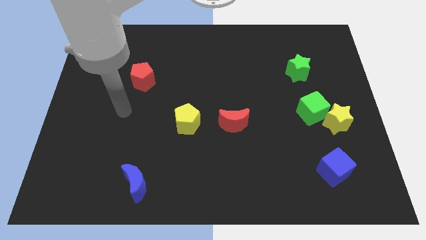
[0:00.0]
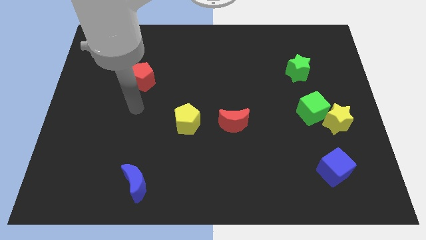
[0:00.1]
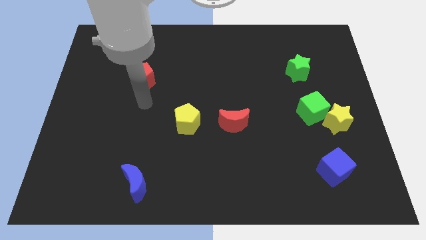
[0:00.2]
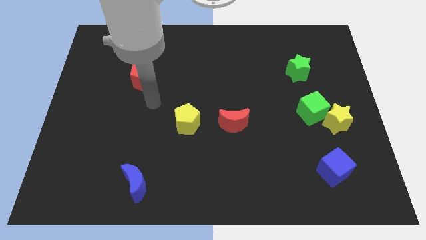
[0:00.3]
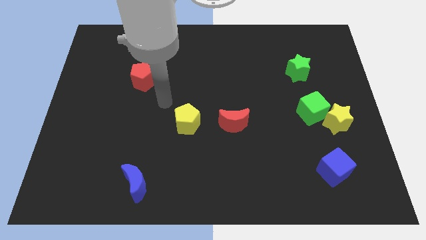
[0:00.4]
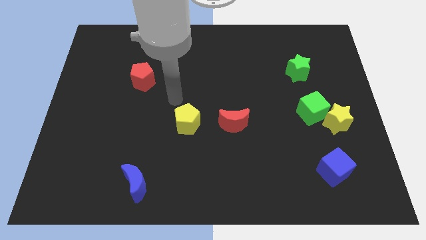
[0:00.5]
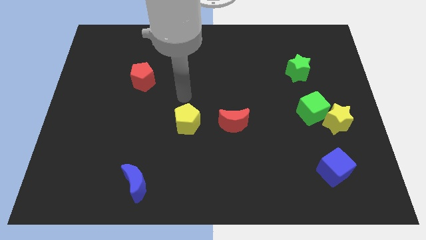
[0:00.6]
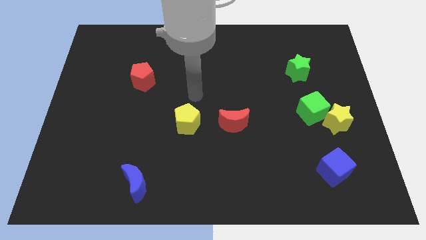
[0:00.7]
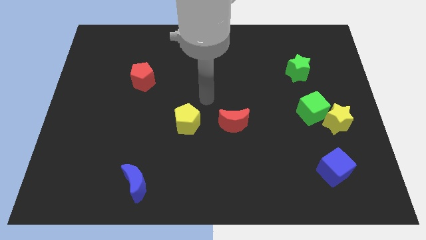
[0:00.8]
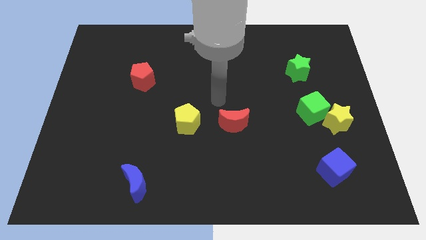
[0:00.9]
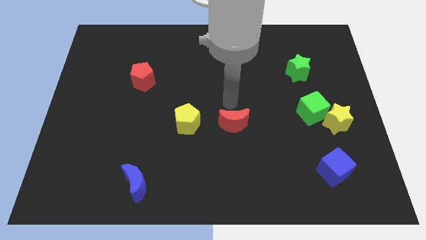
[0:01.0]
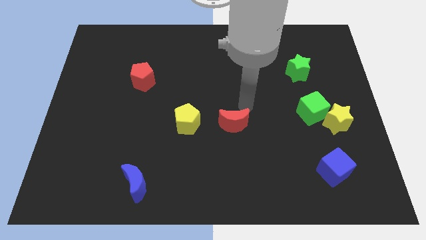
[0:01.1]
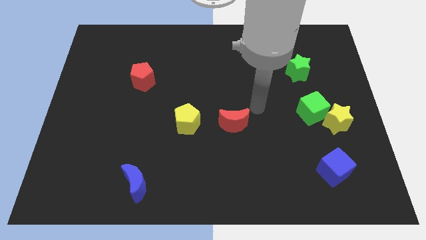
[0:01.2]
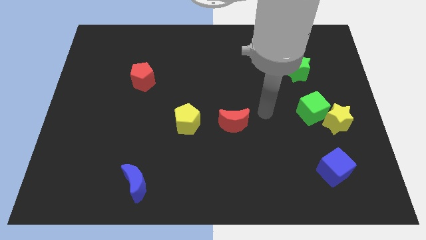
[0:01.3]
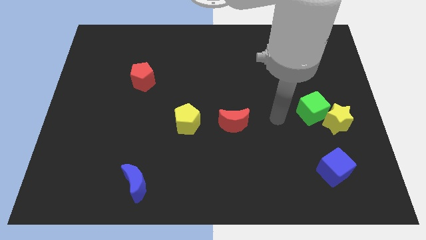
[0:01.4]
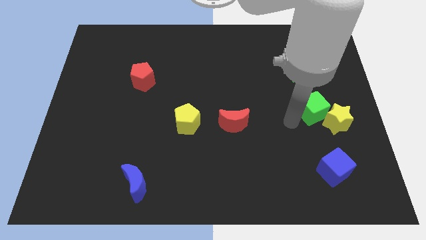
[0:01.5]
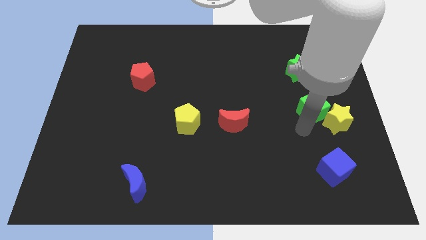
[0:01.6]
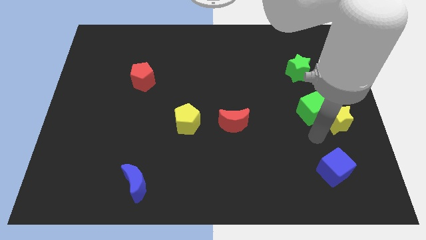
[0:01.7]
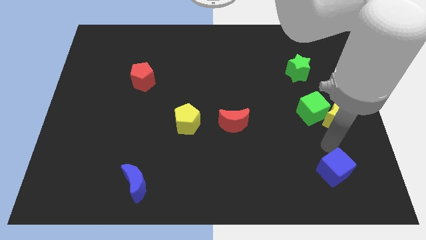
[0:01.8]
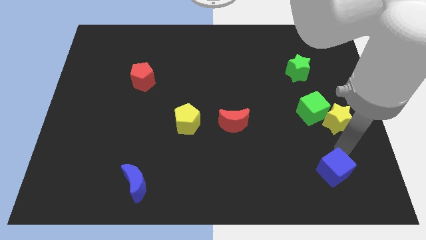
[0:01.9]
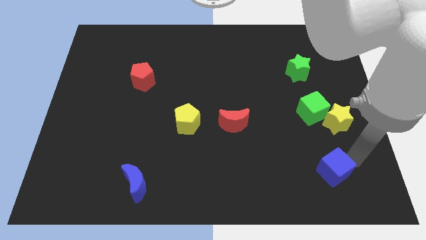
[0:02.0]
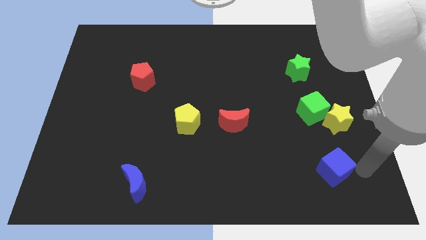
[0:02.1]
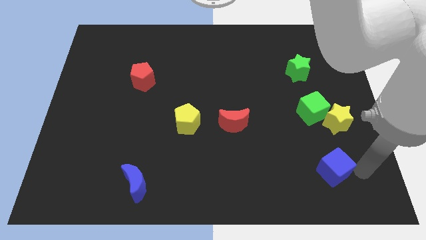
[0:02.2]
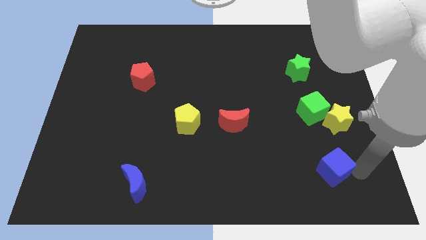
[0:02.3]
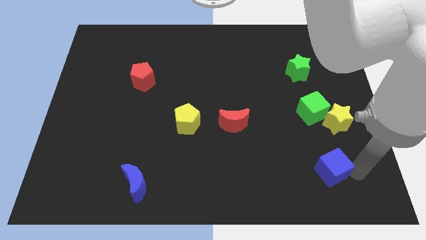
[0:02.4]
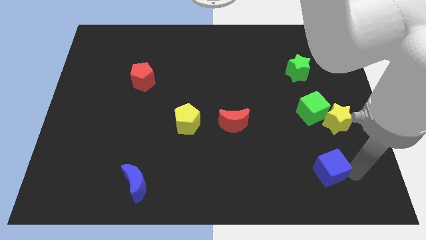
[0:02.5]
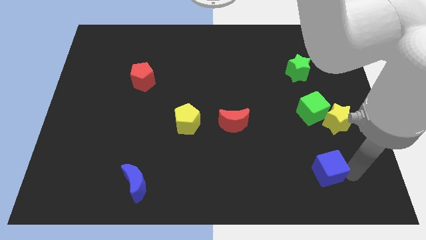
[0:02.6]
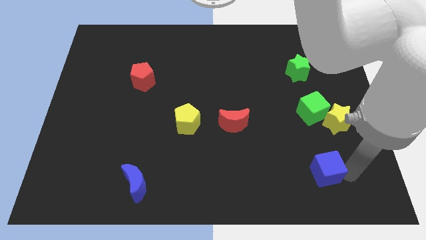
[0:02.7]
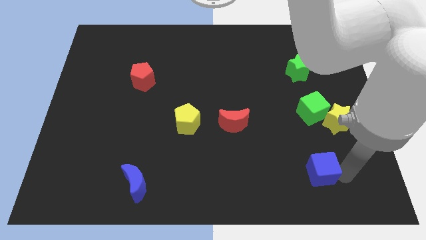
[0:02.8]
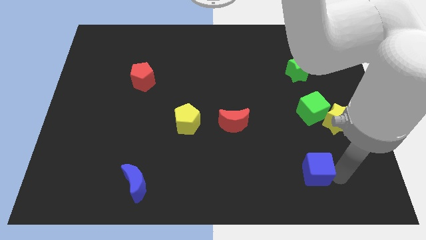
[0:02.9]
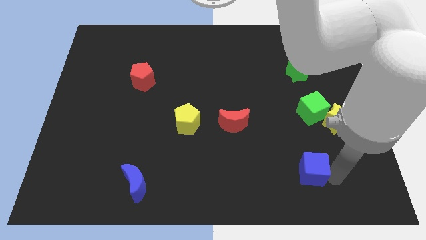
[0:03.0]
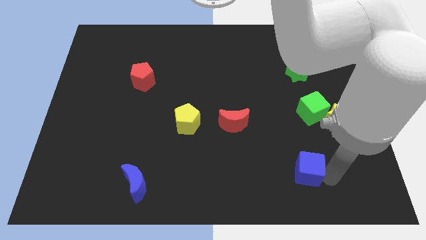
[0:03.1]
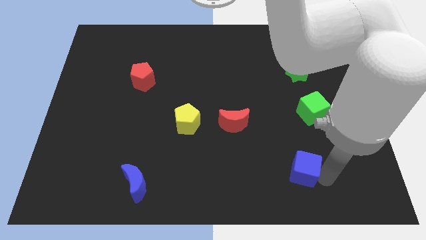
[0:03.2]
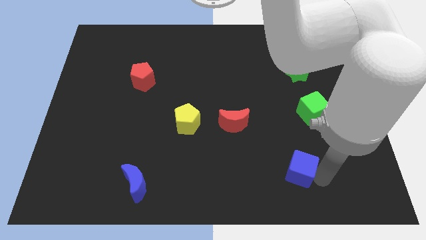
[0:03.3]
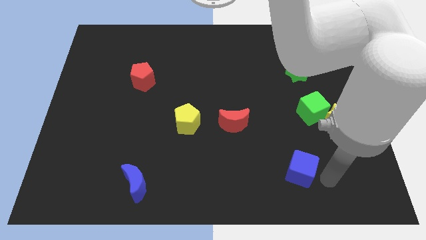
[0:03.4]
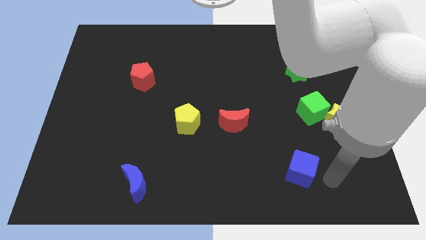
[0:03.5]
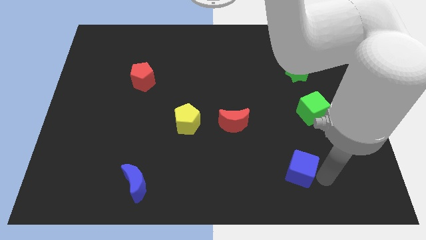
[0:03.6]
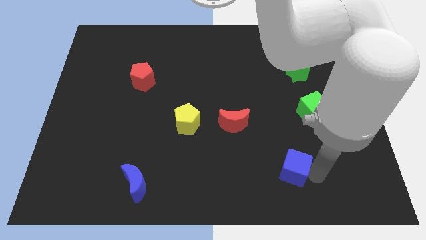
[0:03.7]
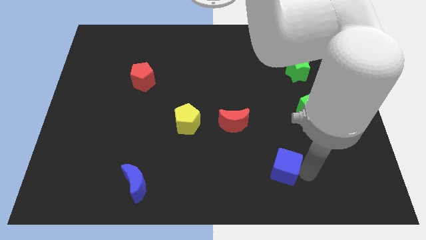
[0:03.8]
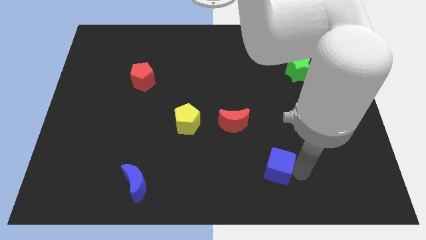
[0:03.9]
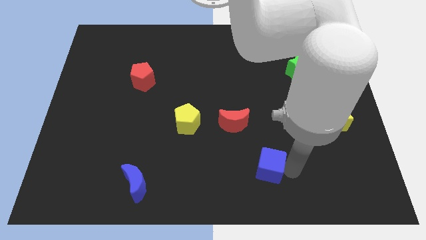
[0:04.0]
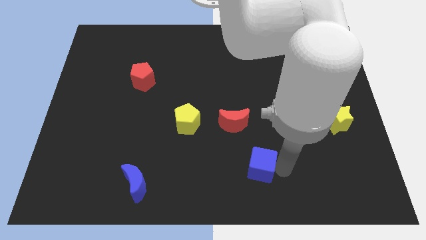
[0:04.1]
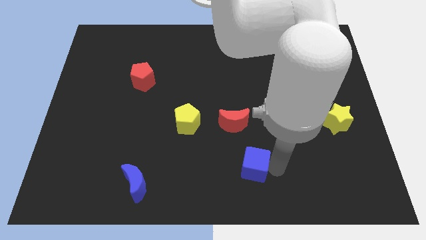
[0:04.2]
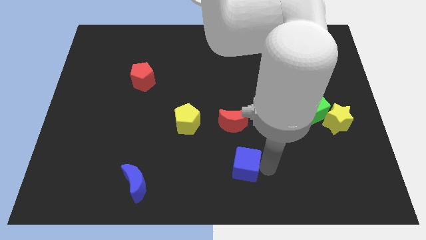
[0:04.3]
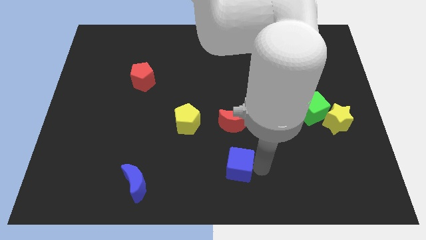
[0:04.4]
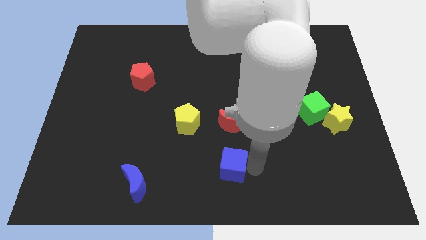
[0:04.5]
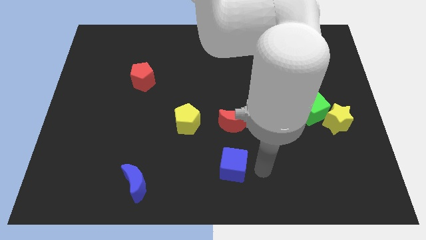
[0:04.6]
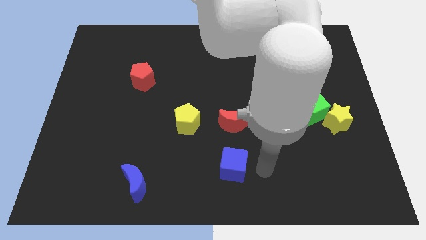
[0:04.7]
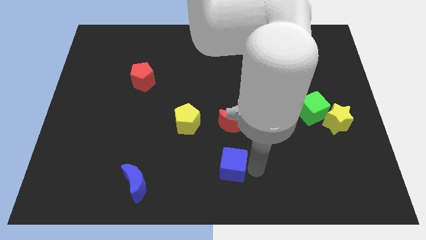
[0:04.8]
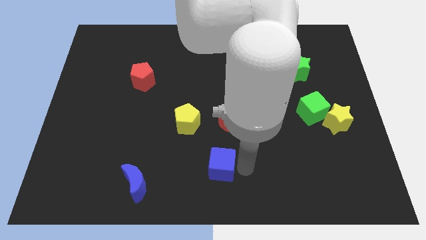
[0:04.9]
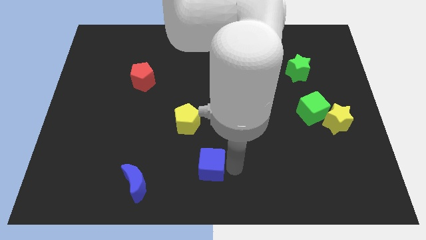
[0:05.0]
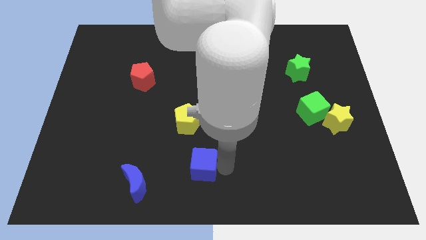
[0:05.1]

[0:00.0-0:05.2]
move the blue cube below the yellow pentagon

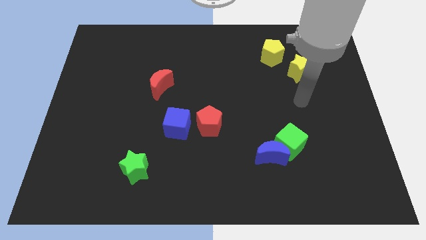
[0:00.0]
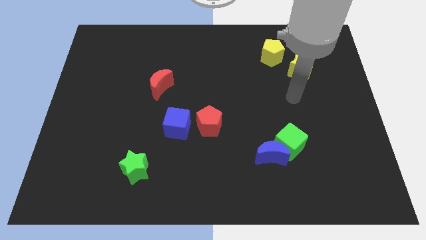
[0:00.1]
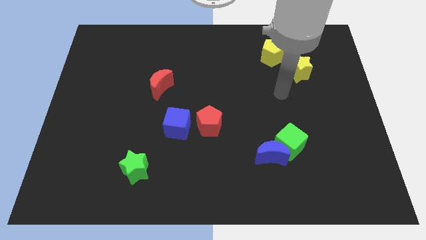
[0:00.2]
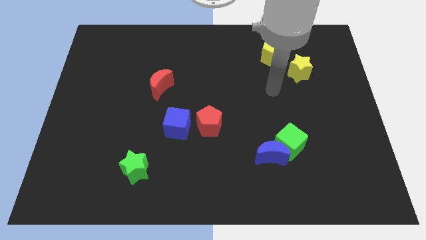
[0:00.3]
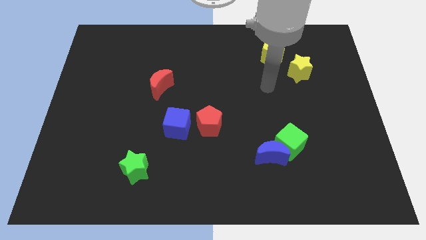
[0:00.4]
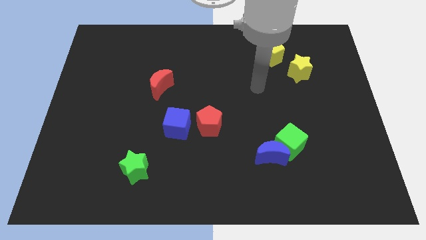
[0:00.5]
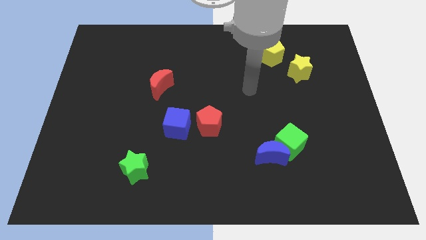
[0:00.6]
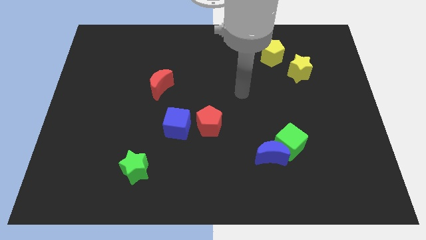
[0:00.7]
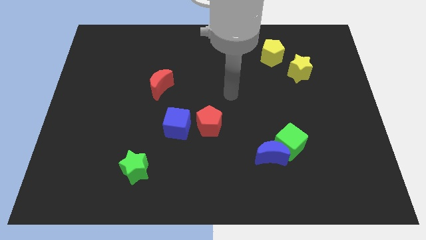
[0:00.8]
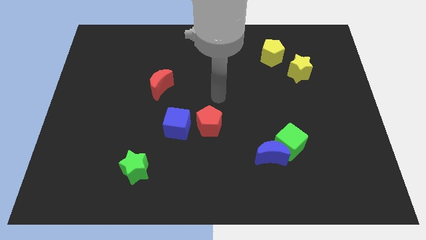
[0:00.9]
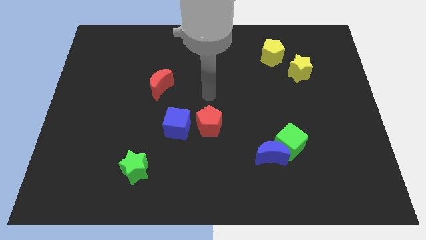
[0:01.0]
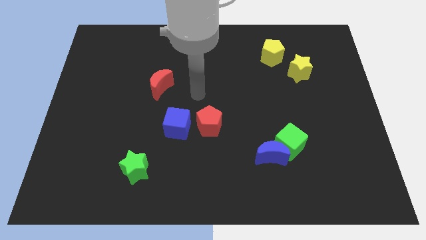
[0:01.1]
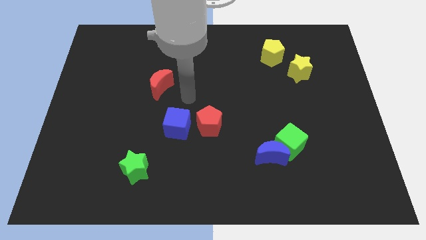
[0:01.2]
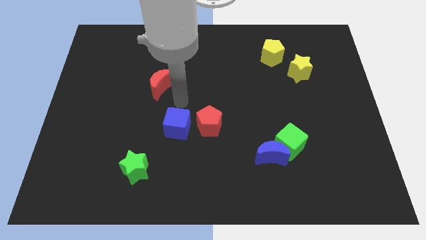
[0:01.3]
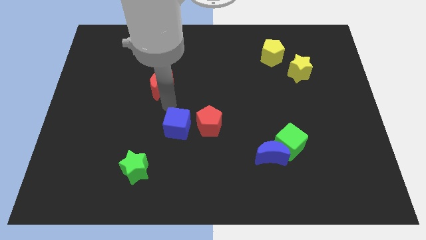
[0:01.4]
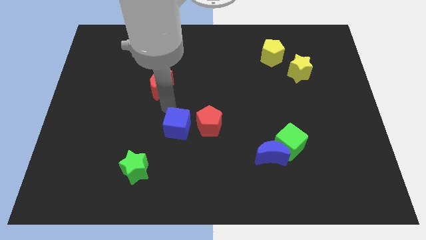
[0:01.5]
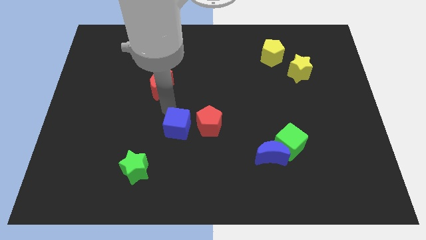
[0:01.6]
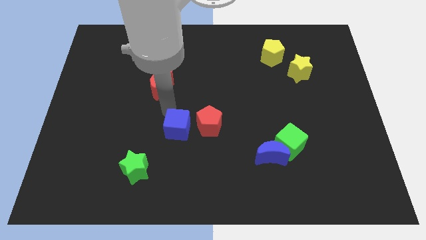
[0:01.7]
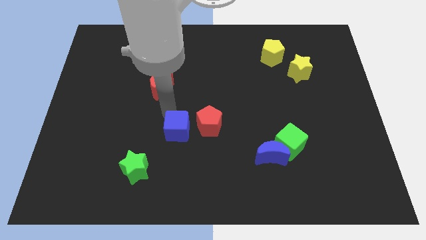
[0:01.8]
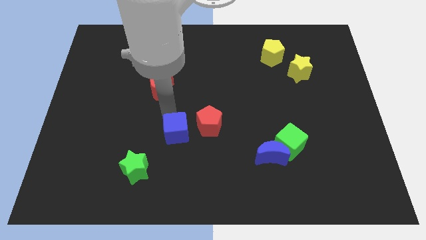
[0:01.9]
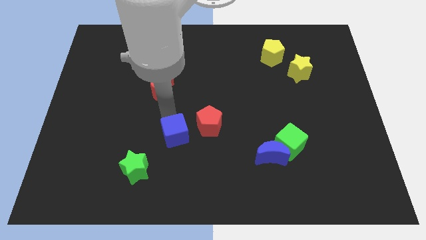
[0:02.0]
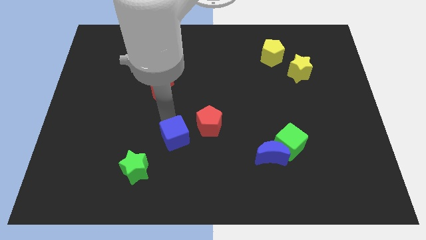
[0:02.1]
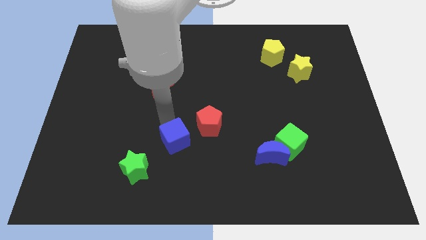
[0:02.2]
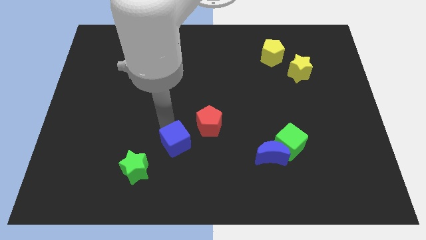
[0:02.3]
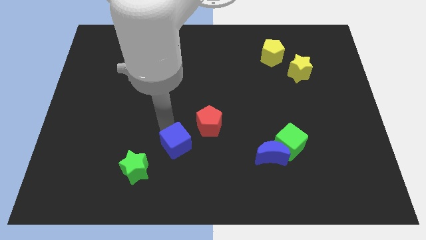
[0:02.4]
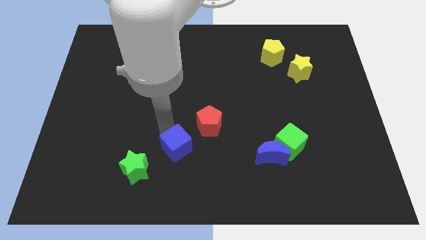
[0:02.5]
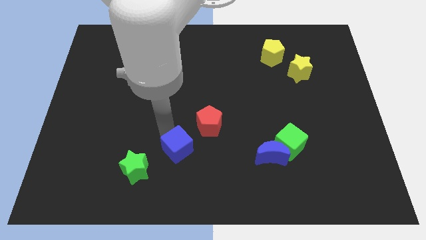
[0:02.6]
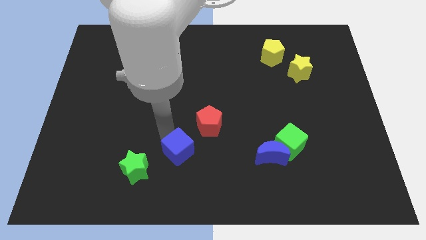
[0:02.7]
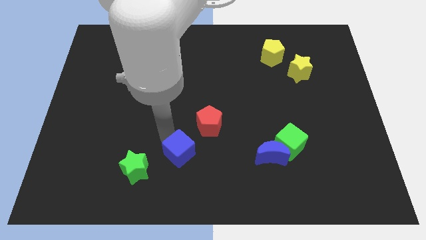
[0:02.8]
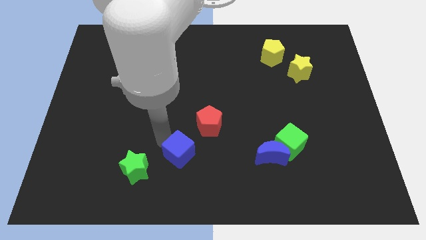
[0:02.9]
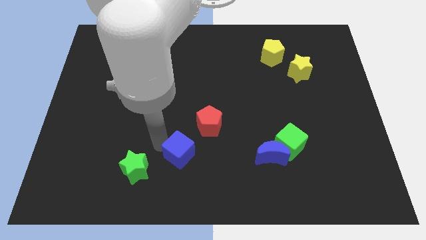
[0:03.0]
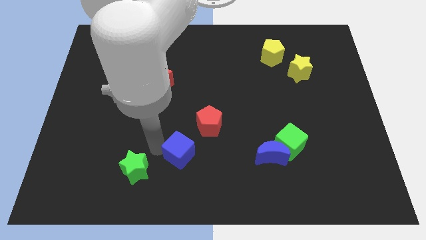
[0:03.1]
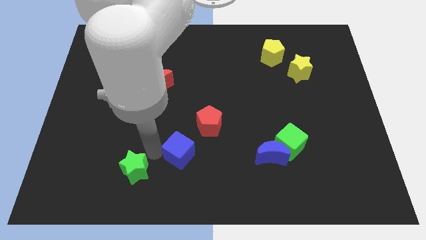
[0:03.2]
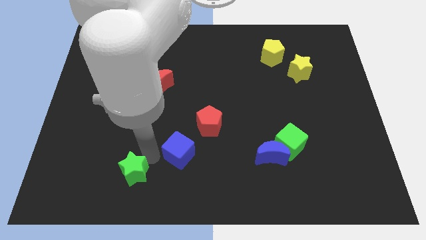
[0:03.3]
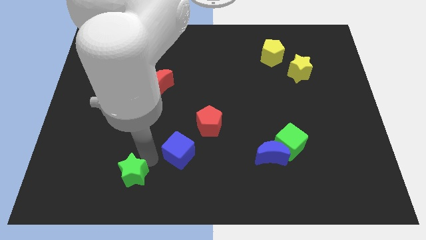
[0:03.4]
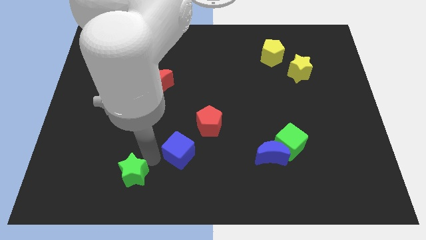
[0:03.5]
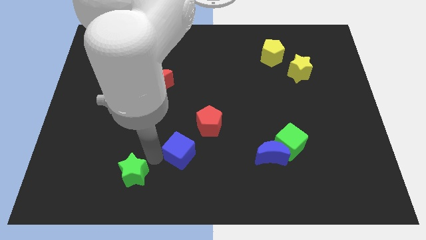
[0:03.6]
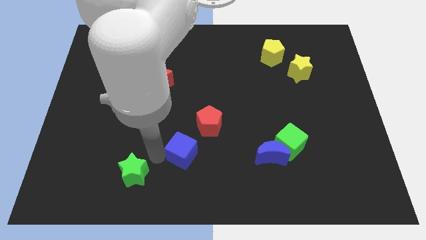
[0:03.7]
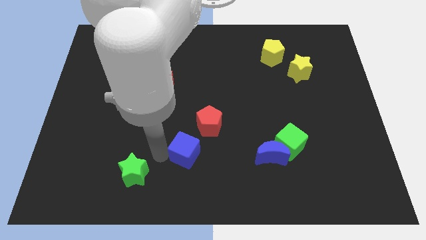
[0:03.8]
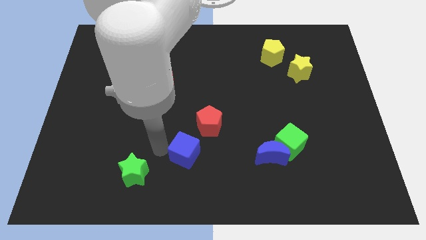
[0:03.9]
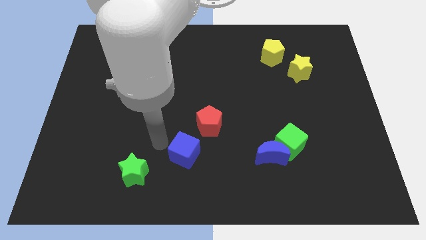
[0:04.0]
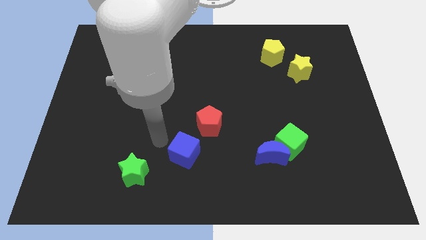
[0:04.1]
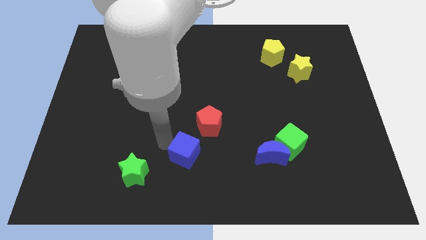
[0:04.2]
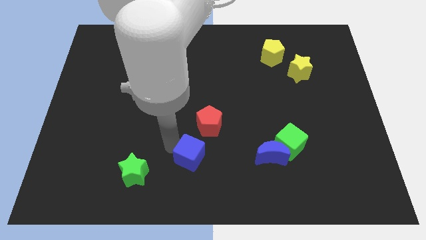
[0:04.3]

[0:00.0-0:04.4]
put the blue cube to the bottom of the red pentagon
